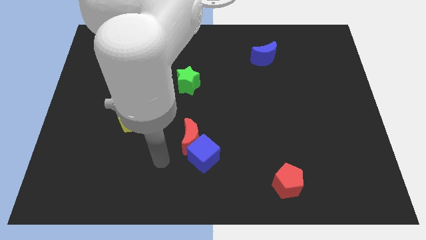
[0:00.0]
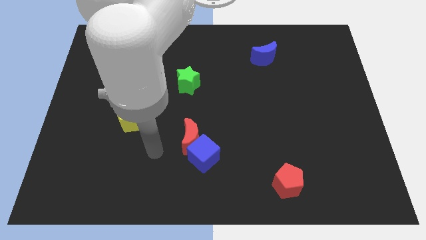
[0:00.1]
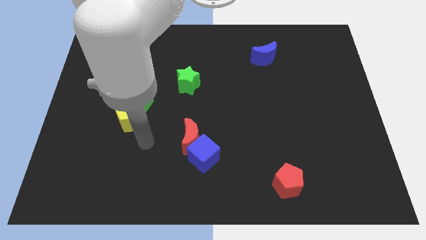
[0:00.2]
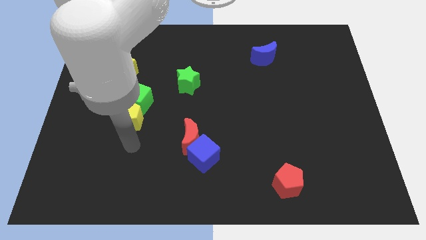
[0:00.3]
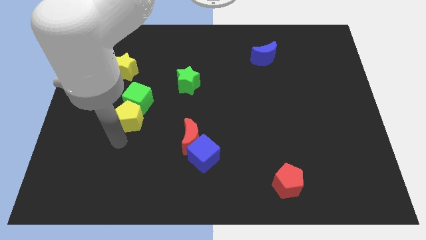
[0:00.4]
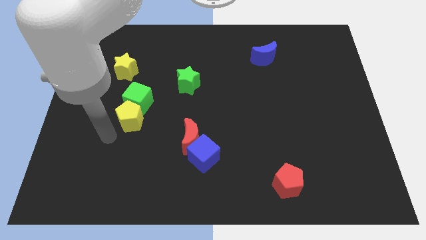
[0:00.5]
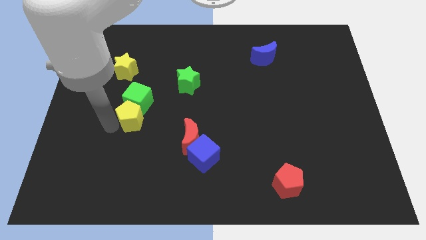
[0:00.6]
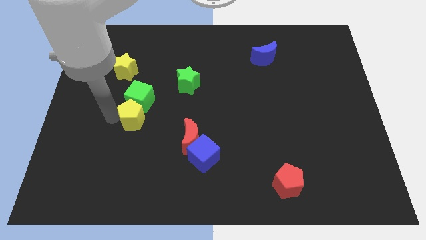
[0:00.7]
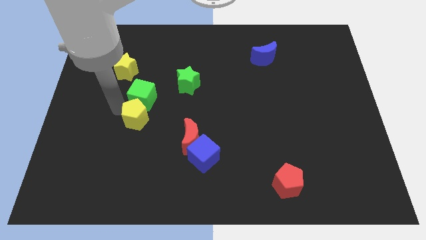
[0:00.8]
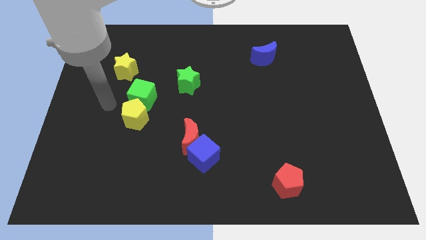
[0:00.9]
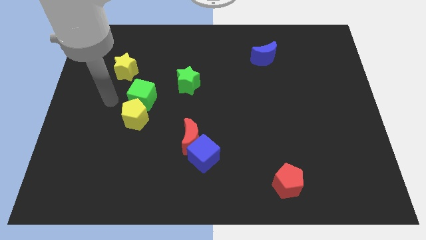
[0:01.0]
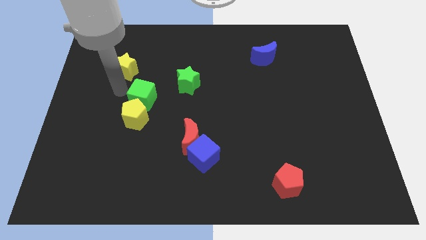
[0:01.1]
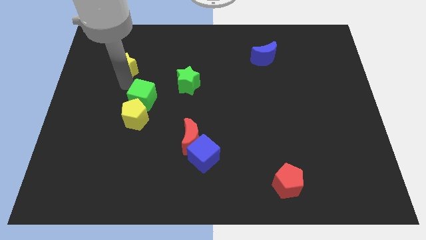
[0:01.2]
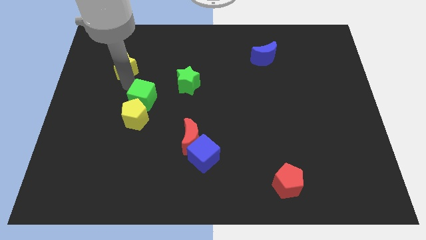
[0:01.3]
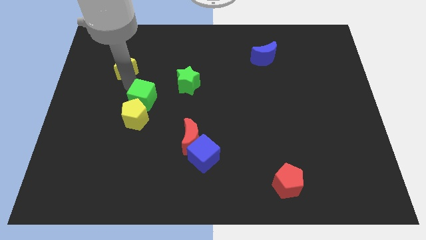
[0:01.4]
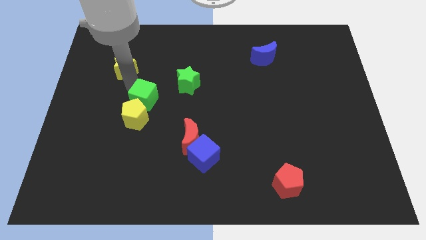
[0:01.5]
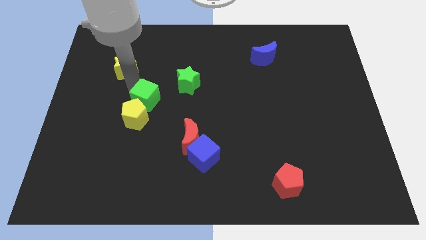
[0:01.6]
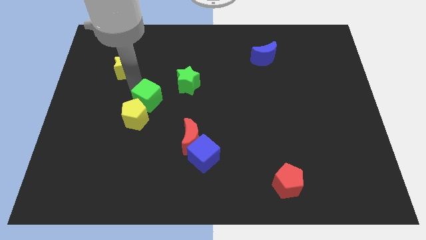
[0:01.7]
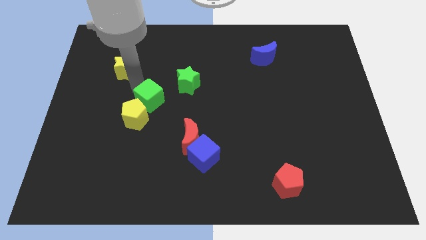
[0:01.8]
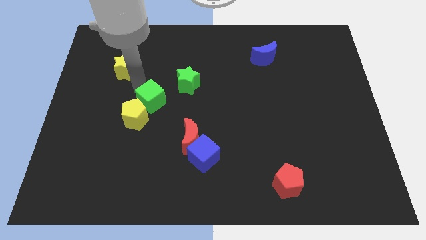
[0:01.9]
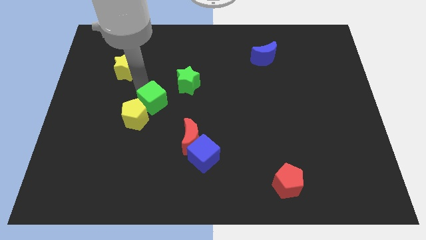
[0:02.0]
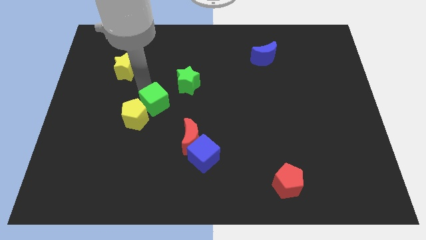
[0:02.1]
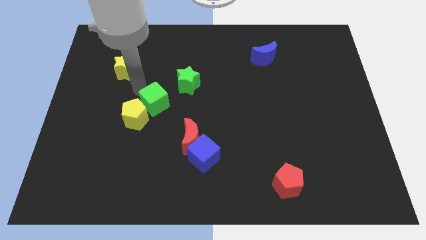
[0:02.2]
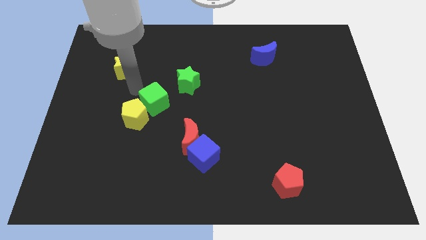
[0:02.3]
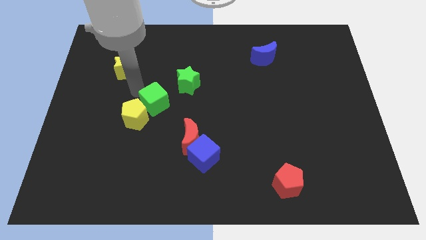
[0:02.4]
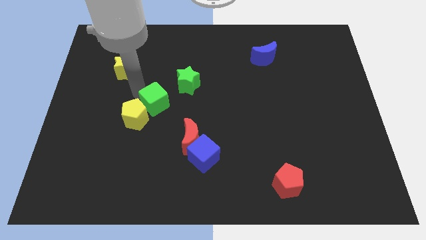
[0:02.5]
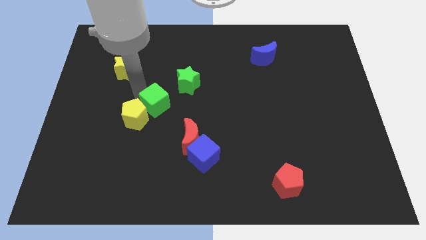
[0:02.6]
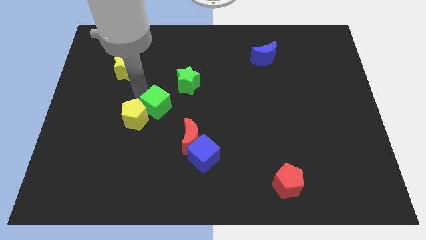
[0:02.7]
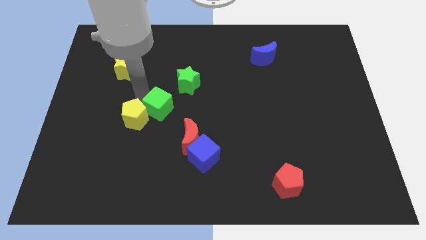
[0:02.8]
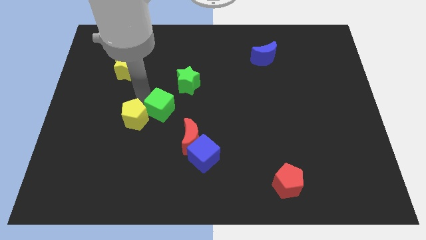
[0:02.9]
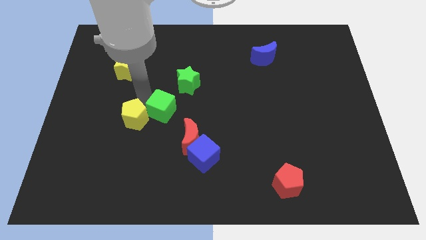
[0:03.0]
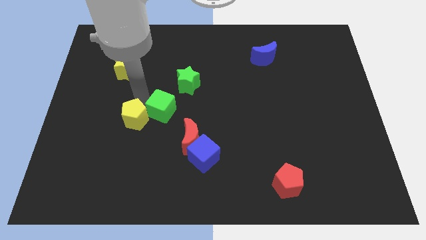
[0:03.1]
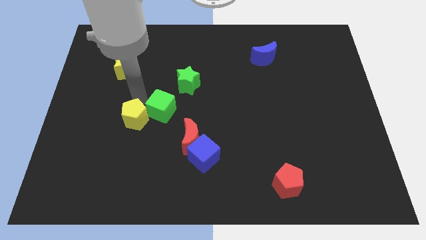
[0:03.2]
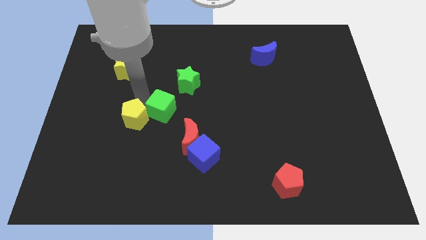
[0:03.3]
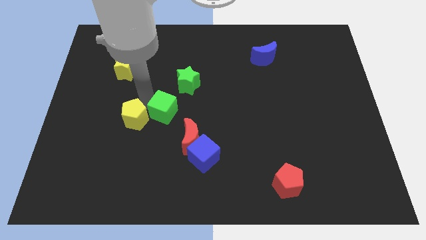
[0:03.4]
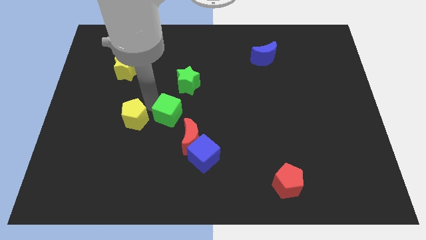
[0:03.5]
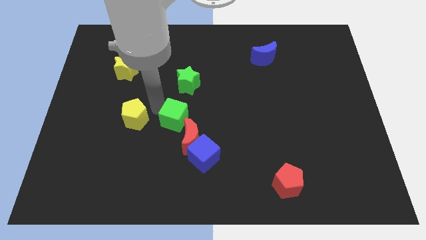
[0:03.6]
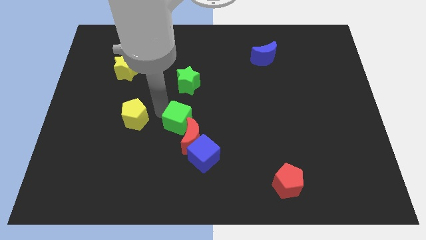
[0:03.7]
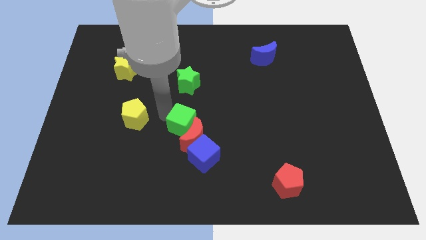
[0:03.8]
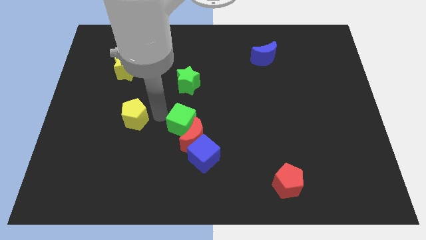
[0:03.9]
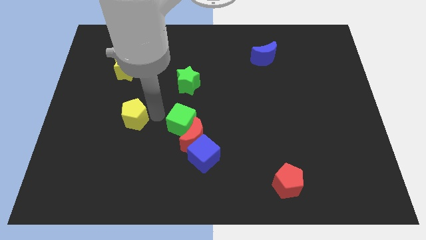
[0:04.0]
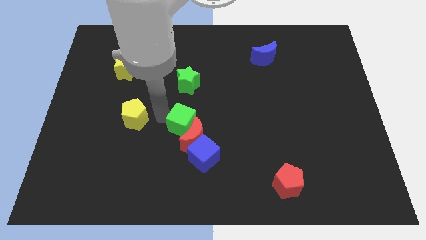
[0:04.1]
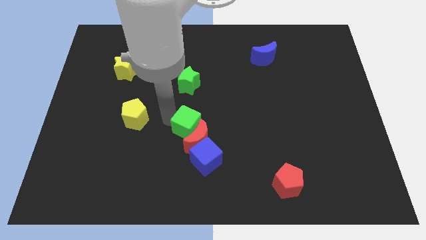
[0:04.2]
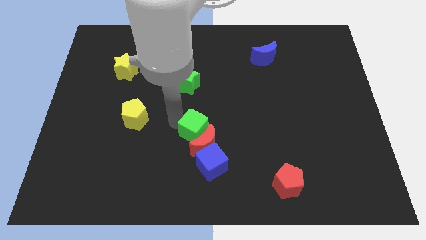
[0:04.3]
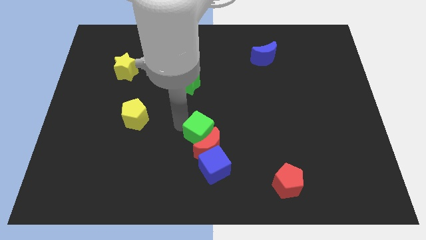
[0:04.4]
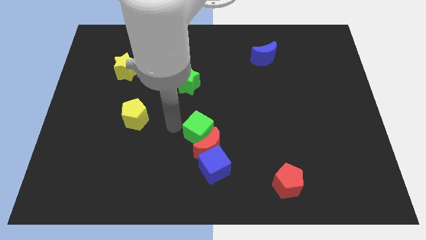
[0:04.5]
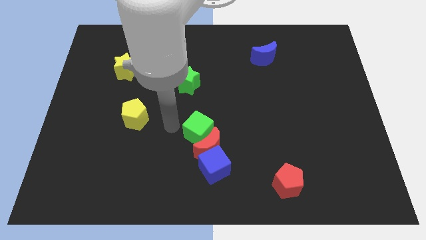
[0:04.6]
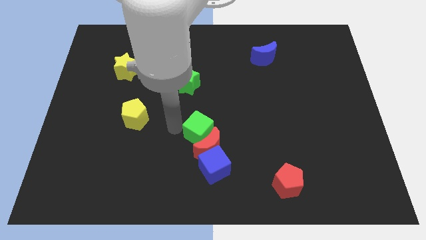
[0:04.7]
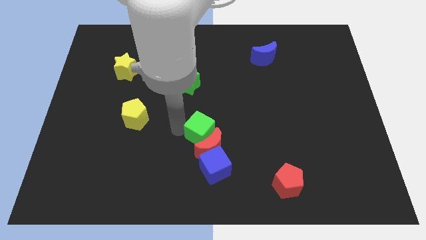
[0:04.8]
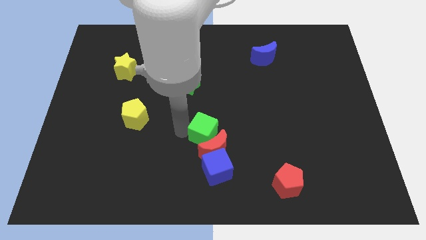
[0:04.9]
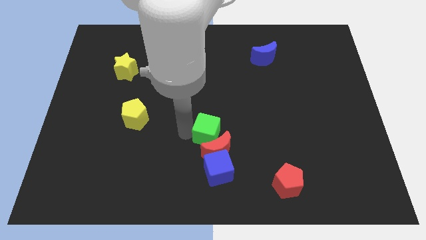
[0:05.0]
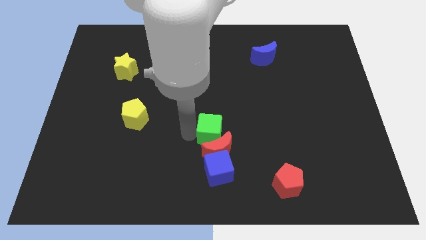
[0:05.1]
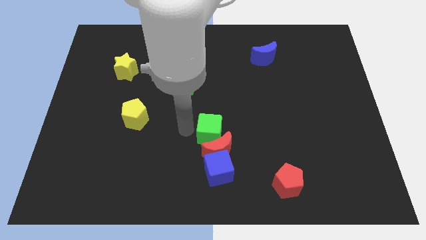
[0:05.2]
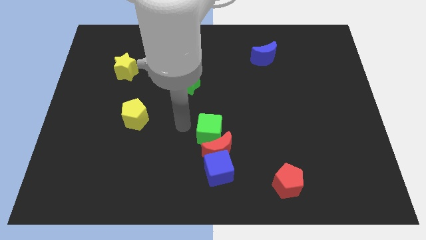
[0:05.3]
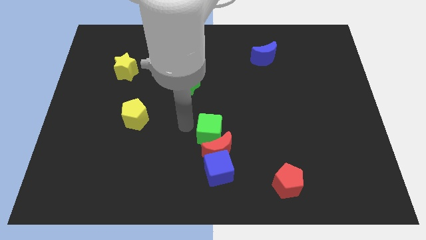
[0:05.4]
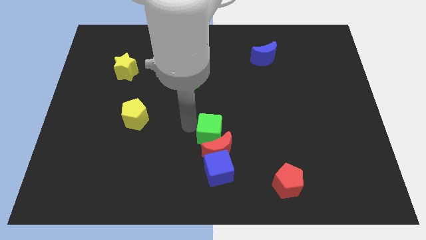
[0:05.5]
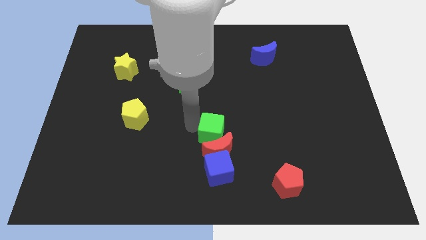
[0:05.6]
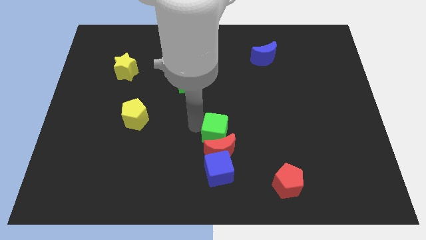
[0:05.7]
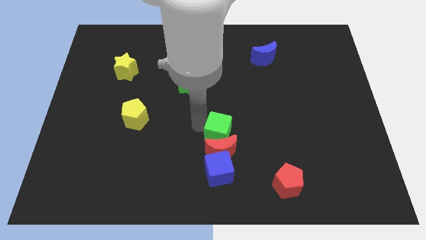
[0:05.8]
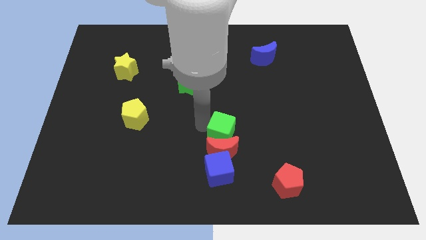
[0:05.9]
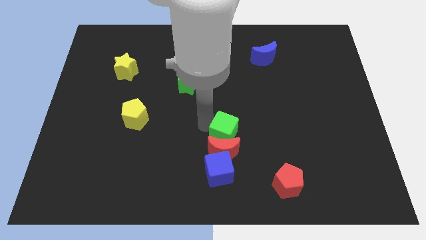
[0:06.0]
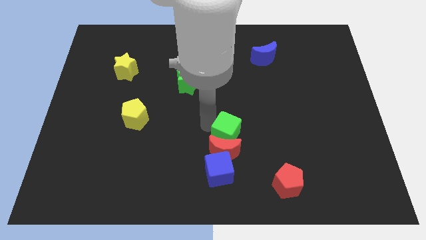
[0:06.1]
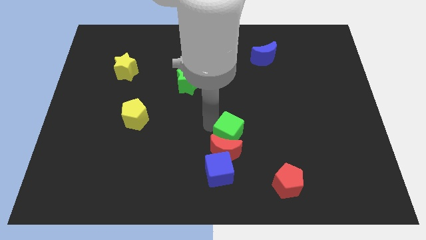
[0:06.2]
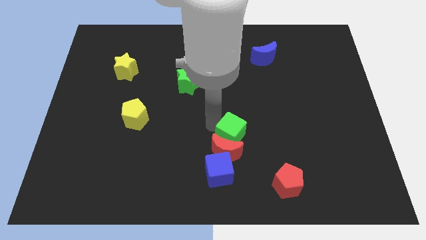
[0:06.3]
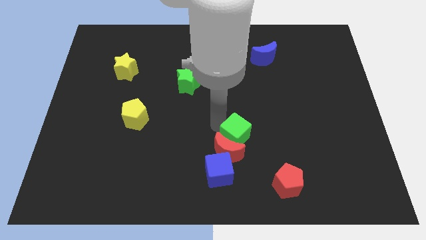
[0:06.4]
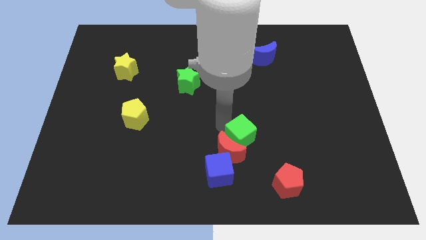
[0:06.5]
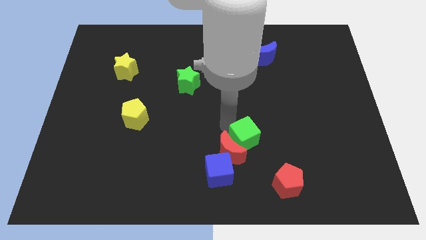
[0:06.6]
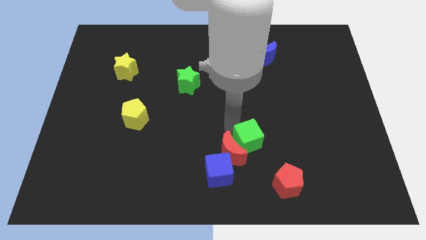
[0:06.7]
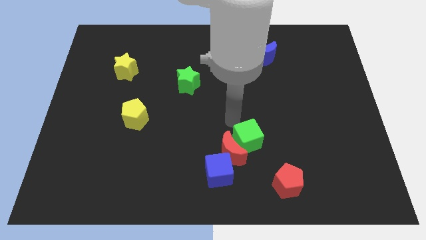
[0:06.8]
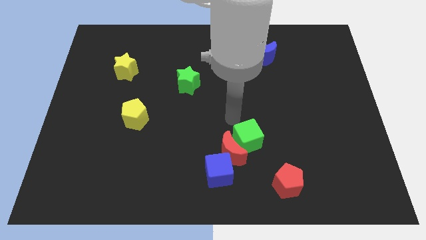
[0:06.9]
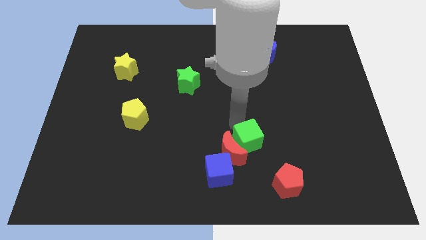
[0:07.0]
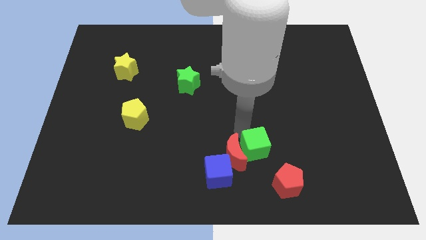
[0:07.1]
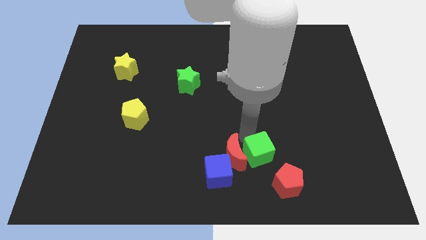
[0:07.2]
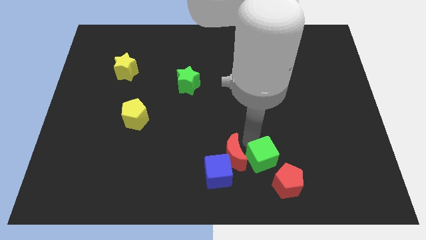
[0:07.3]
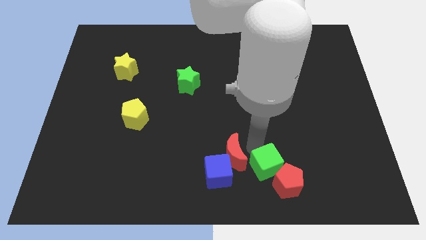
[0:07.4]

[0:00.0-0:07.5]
push the green cube towards the red pentagon
